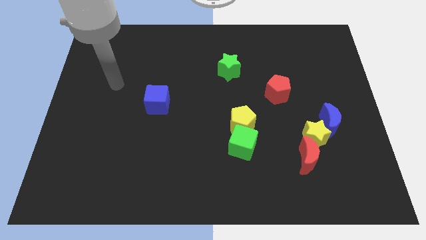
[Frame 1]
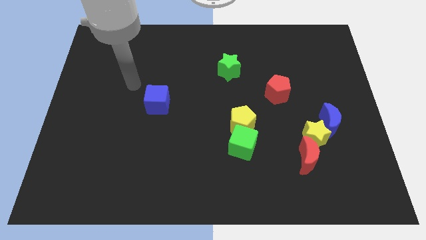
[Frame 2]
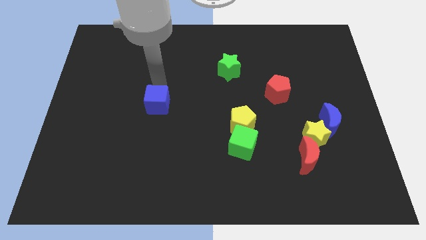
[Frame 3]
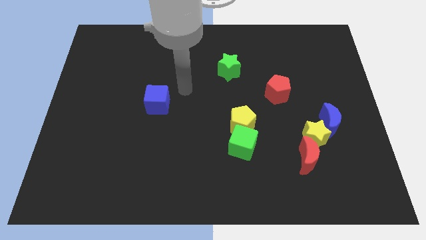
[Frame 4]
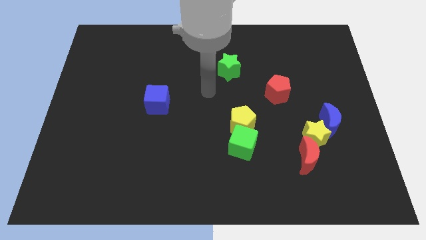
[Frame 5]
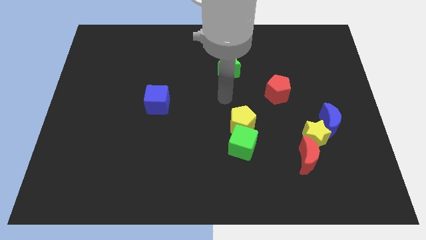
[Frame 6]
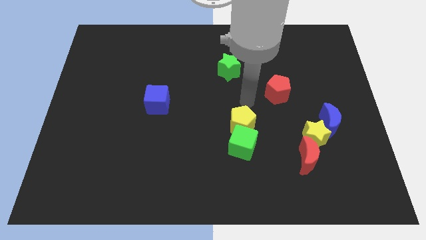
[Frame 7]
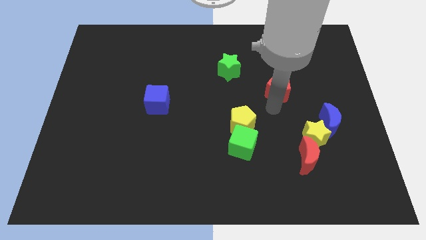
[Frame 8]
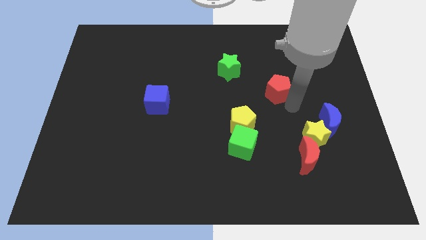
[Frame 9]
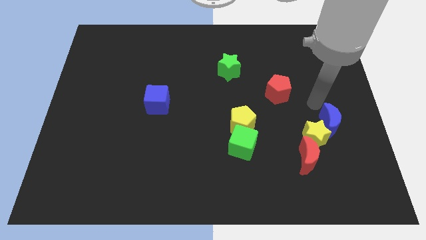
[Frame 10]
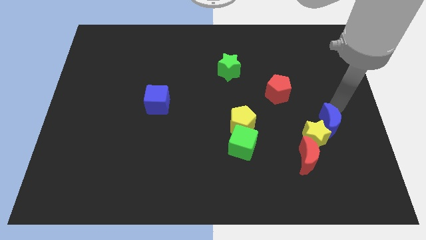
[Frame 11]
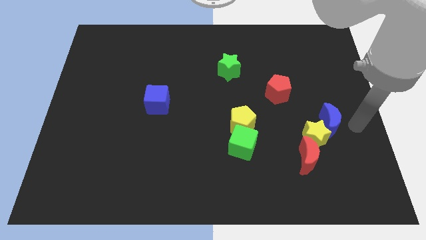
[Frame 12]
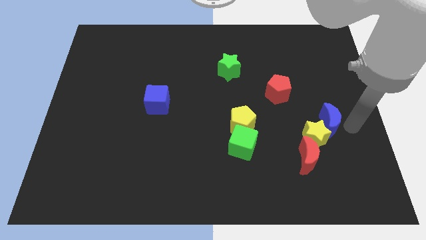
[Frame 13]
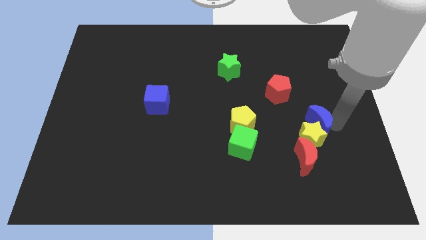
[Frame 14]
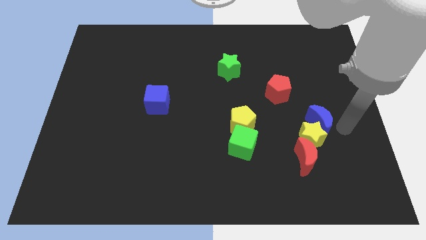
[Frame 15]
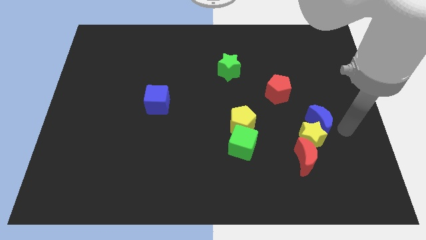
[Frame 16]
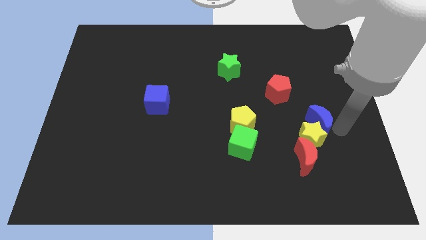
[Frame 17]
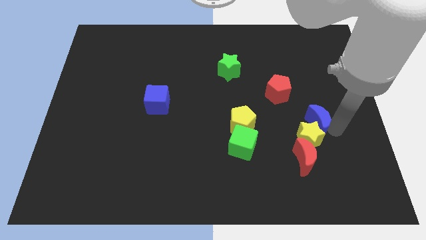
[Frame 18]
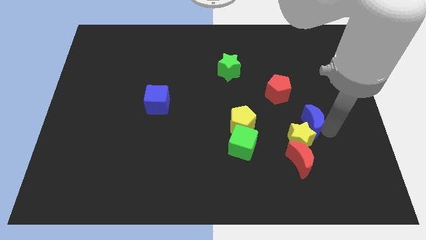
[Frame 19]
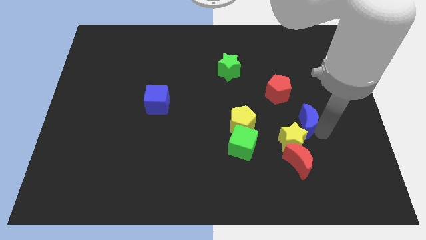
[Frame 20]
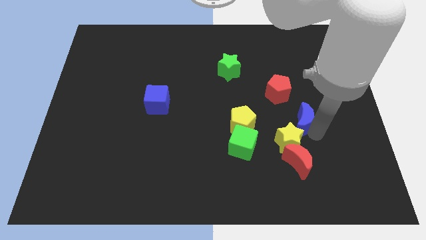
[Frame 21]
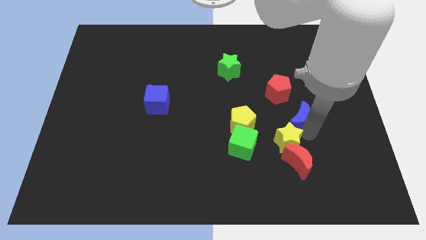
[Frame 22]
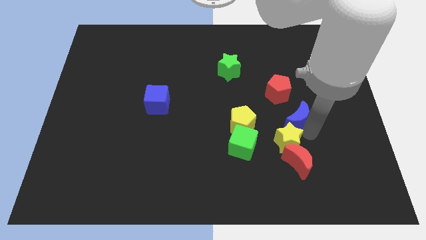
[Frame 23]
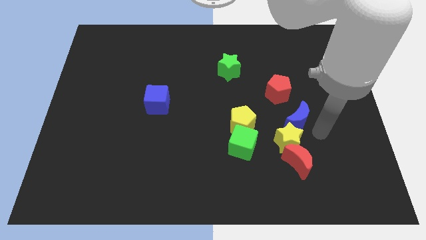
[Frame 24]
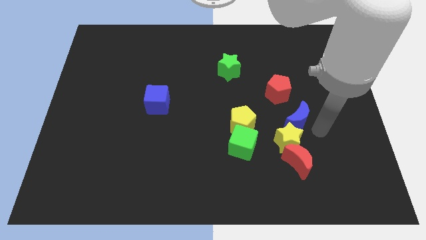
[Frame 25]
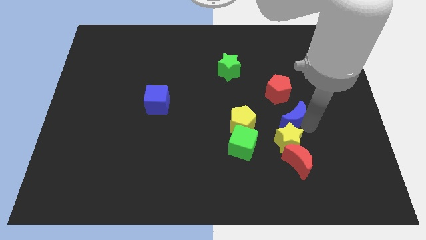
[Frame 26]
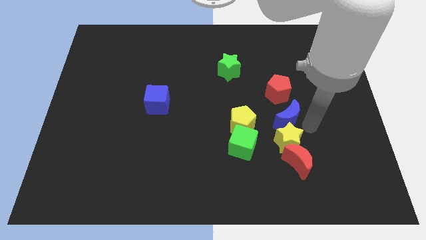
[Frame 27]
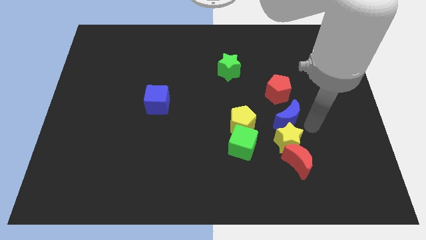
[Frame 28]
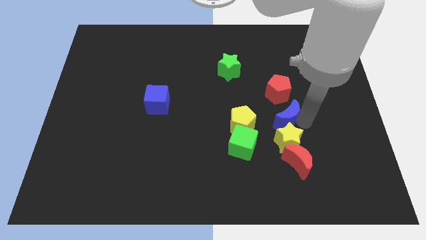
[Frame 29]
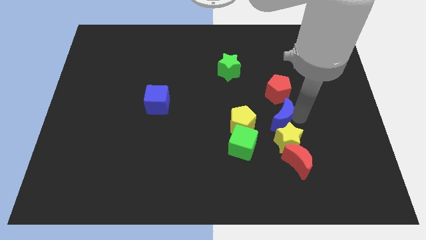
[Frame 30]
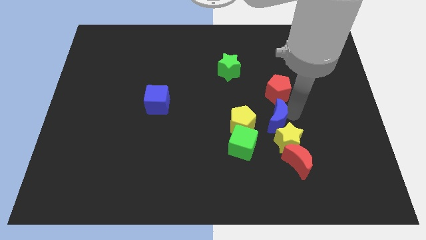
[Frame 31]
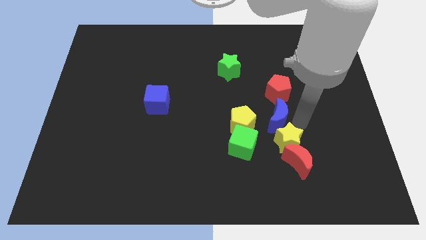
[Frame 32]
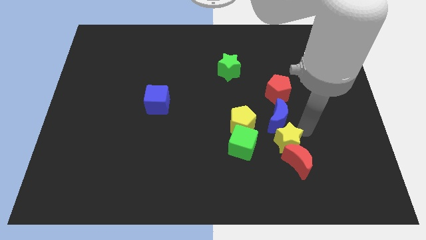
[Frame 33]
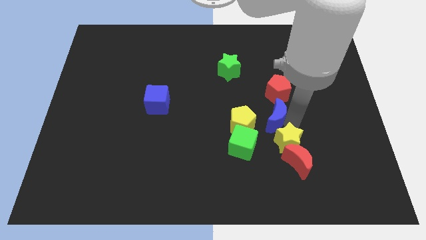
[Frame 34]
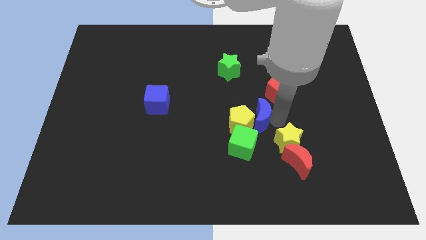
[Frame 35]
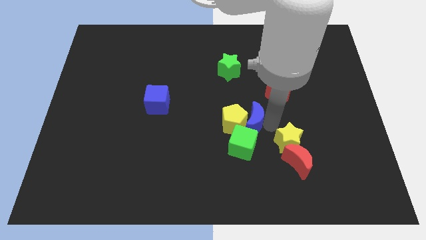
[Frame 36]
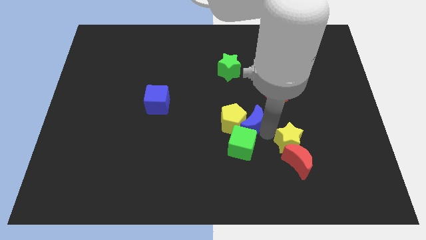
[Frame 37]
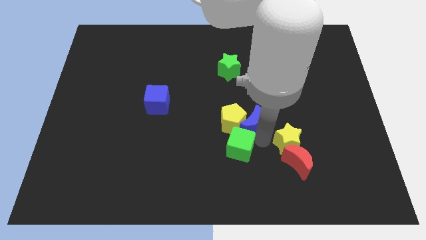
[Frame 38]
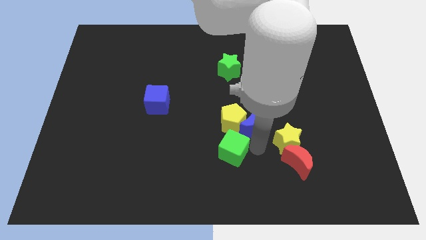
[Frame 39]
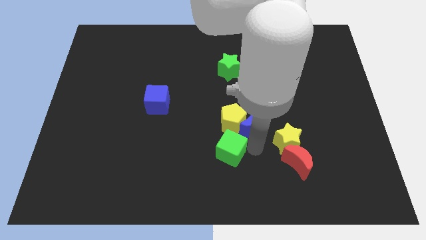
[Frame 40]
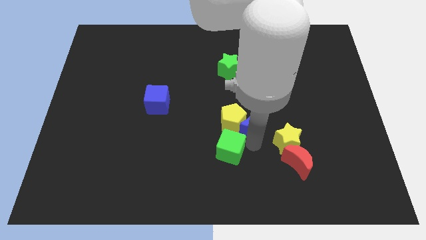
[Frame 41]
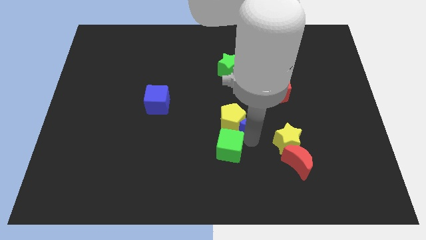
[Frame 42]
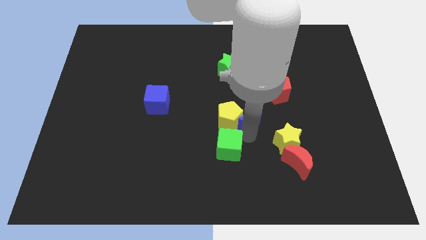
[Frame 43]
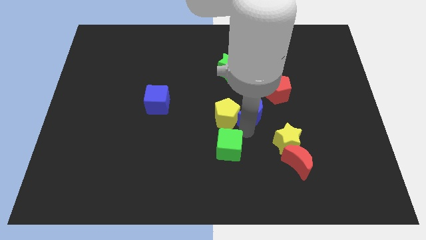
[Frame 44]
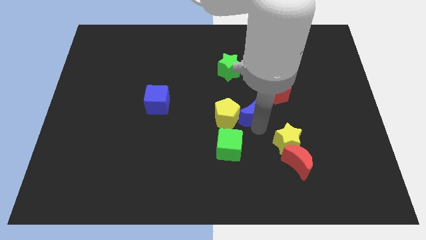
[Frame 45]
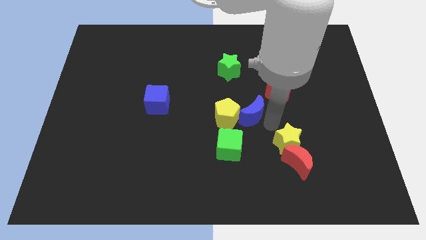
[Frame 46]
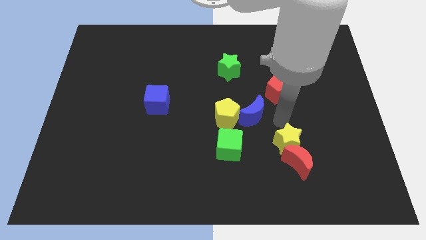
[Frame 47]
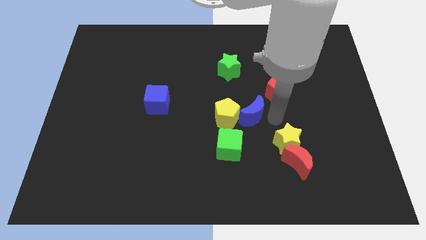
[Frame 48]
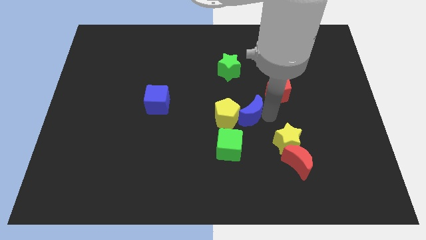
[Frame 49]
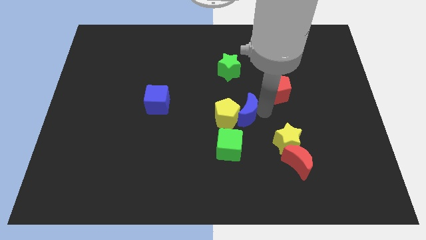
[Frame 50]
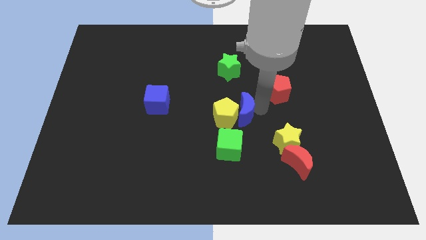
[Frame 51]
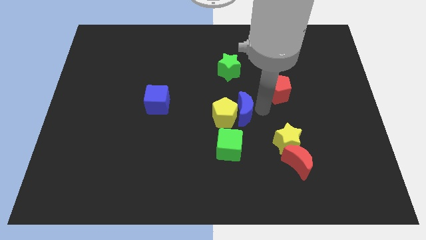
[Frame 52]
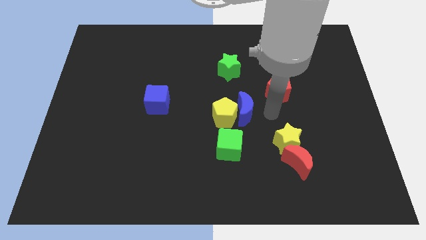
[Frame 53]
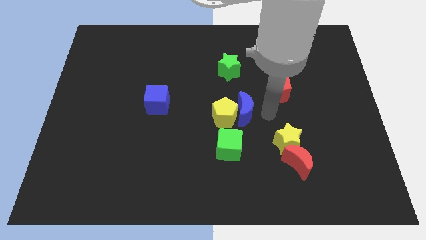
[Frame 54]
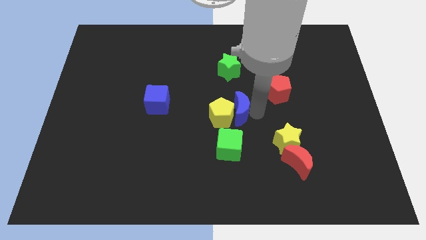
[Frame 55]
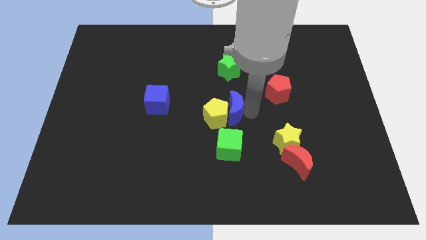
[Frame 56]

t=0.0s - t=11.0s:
slide the blue moon left

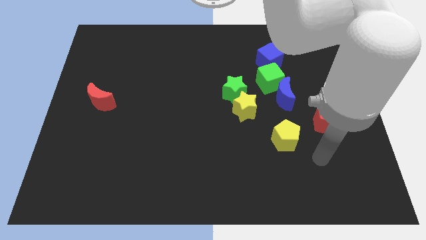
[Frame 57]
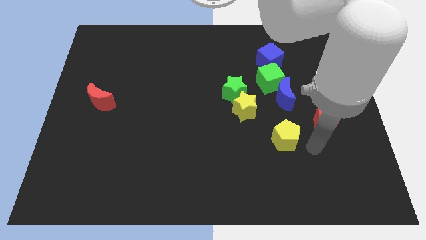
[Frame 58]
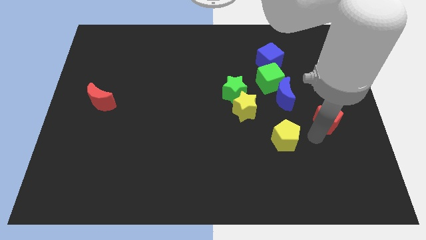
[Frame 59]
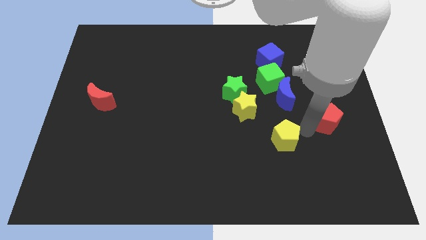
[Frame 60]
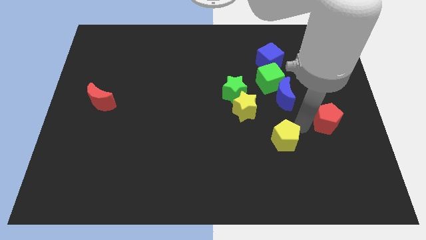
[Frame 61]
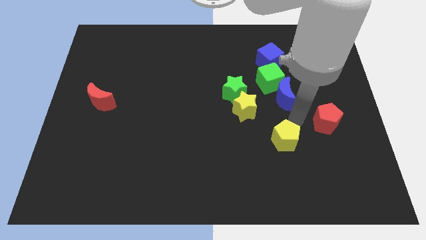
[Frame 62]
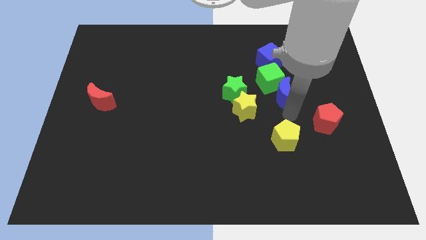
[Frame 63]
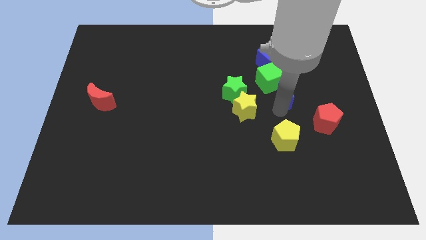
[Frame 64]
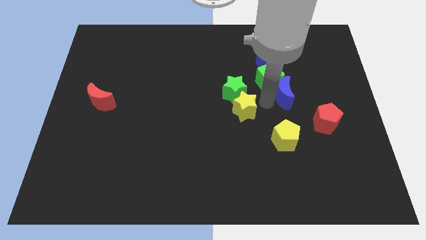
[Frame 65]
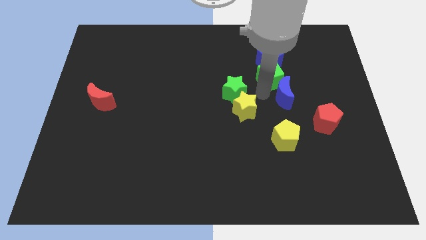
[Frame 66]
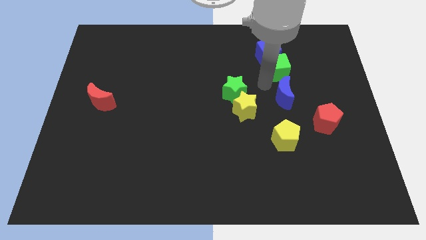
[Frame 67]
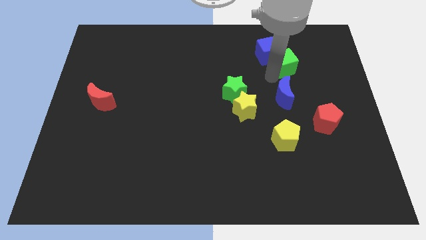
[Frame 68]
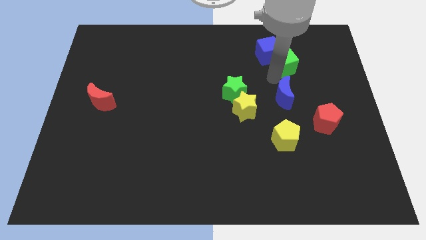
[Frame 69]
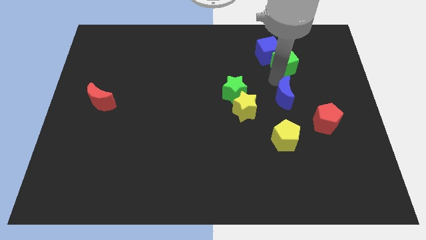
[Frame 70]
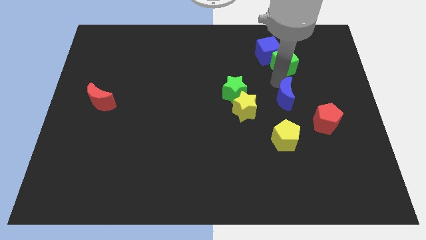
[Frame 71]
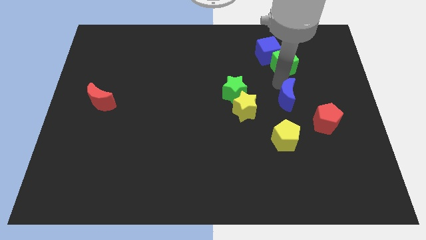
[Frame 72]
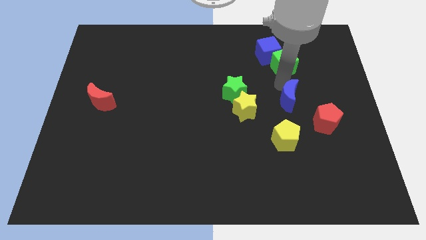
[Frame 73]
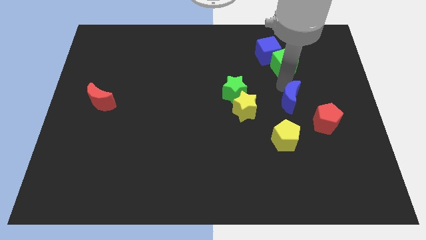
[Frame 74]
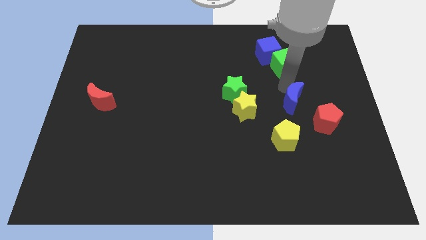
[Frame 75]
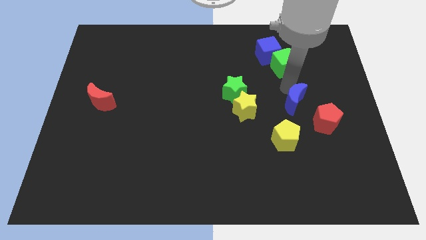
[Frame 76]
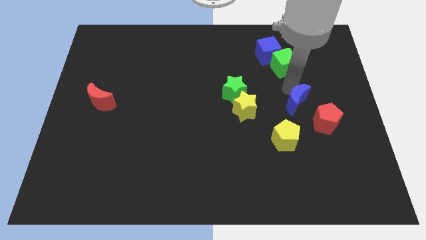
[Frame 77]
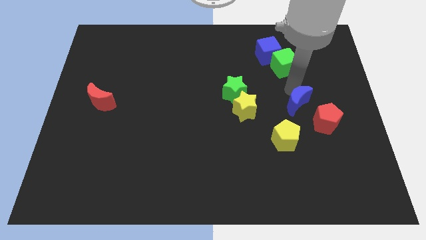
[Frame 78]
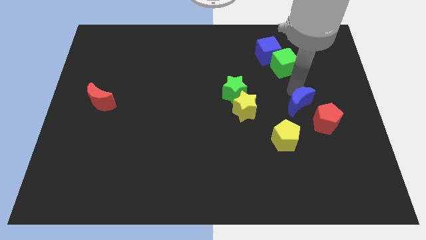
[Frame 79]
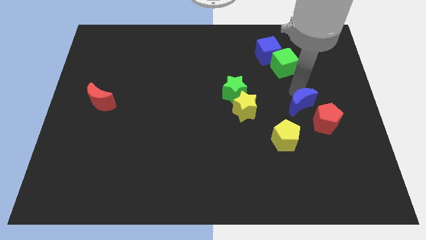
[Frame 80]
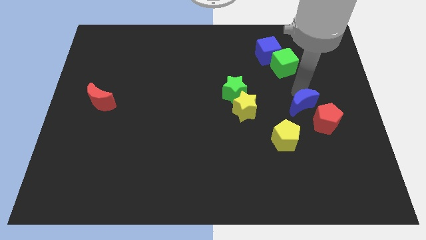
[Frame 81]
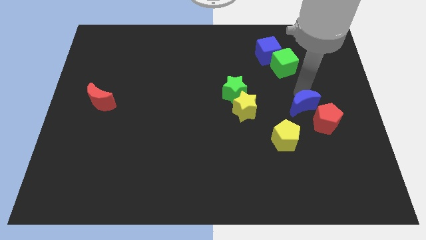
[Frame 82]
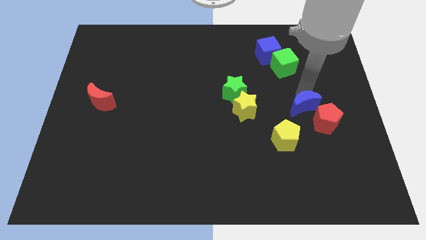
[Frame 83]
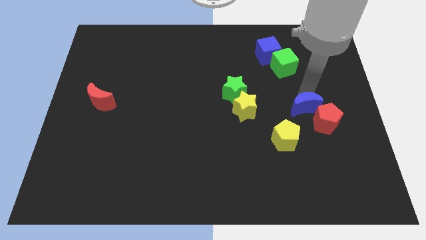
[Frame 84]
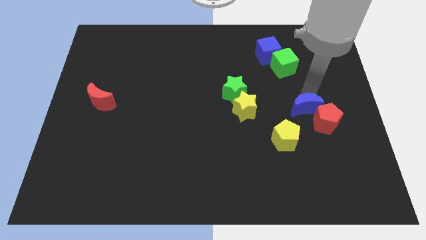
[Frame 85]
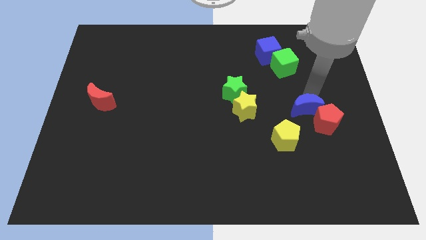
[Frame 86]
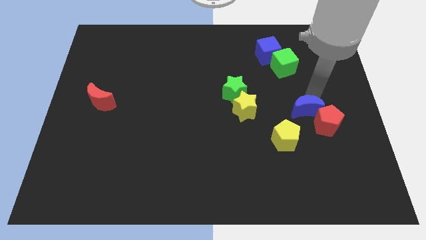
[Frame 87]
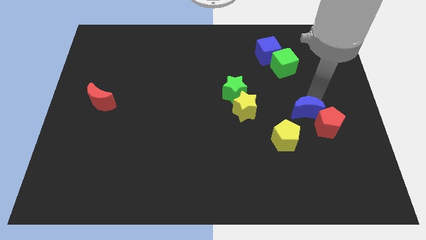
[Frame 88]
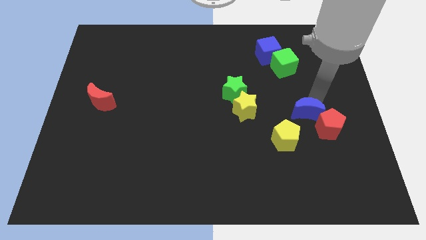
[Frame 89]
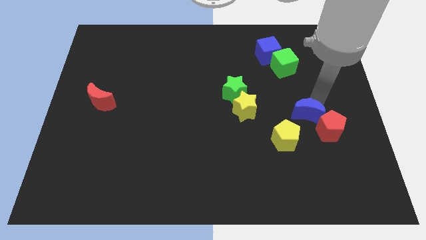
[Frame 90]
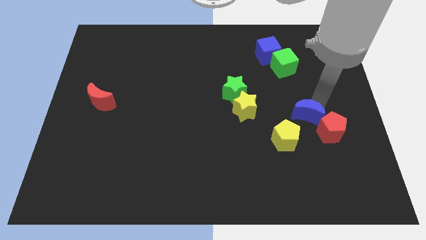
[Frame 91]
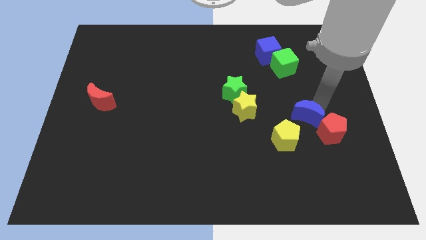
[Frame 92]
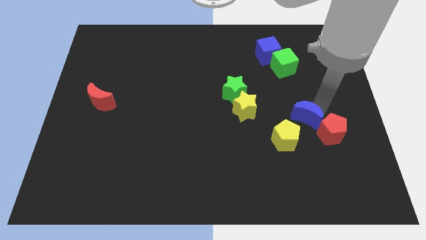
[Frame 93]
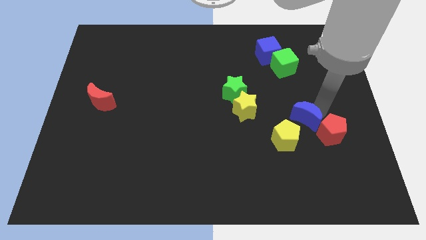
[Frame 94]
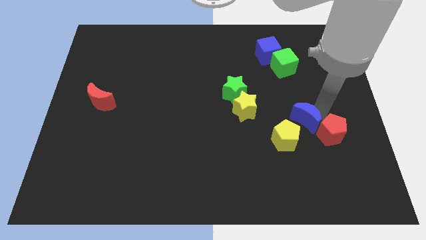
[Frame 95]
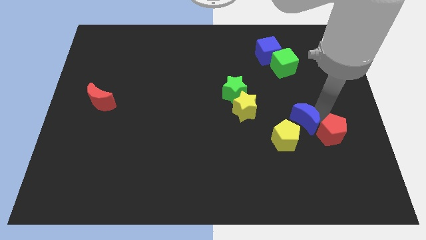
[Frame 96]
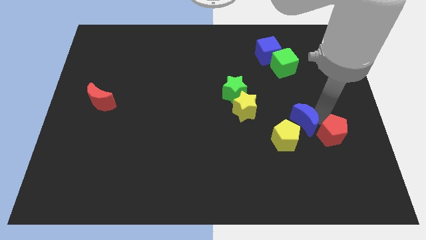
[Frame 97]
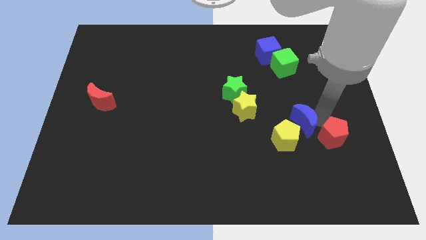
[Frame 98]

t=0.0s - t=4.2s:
push the blue moon a bit downwards
